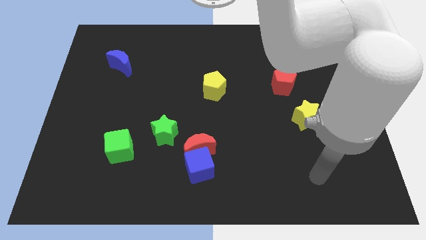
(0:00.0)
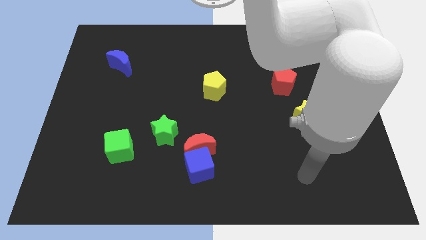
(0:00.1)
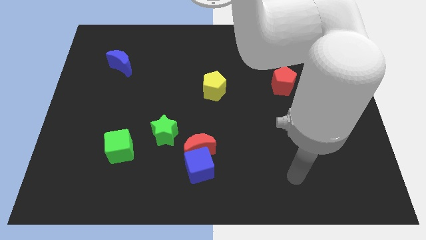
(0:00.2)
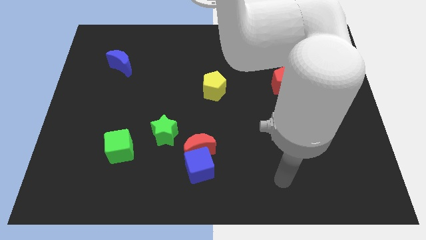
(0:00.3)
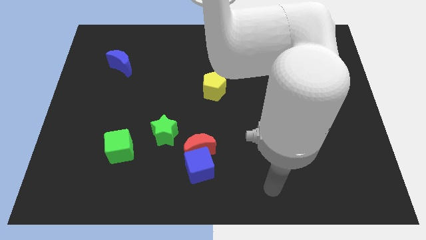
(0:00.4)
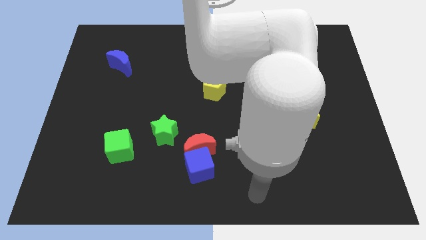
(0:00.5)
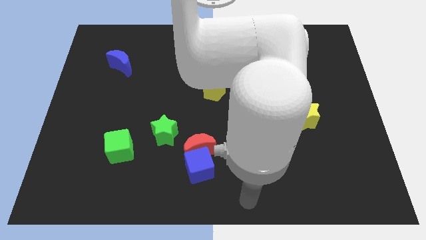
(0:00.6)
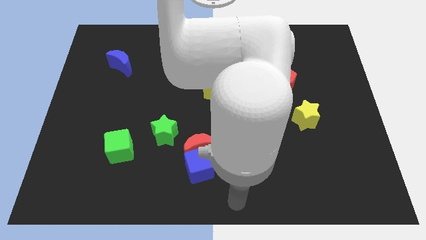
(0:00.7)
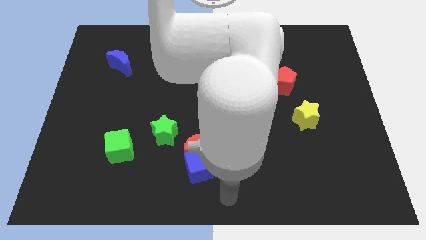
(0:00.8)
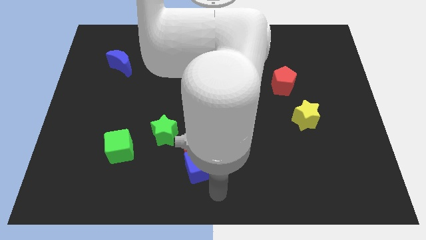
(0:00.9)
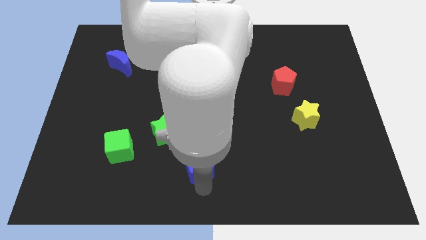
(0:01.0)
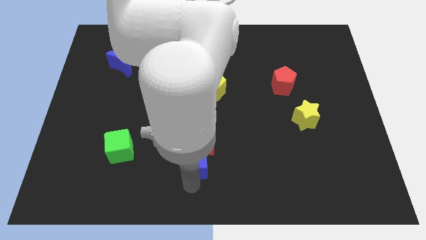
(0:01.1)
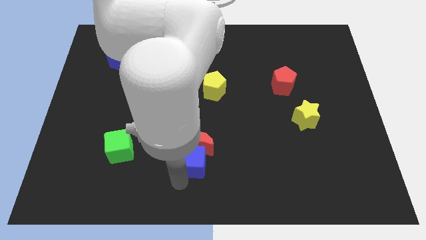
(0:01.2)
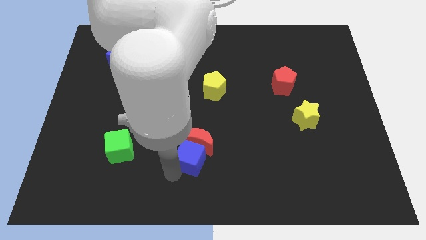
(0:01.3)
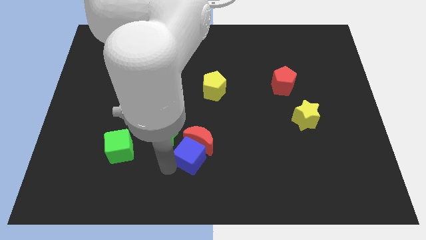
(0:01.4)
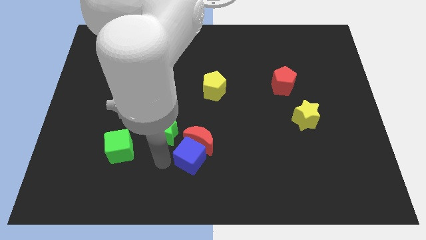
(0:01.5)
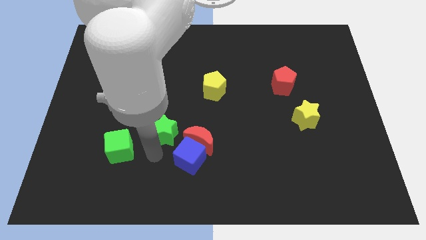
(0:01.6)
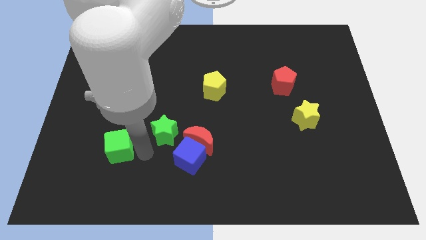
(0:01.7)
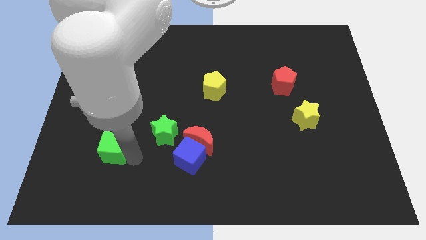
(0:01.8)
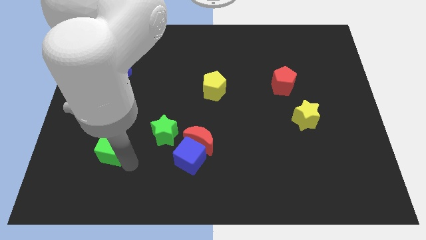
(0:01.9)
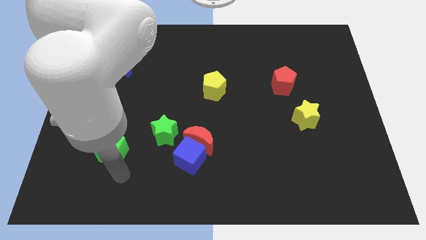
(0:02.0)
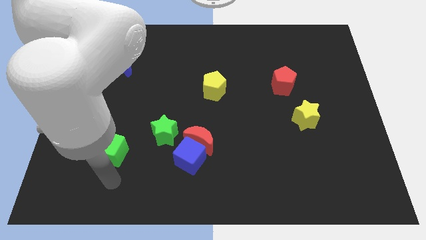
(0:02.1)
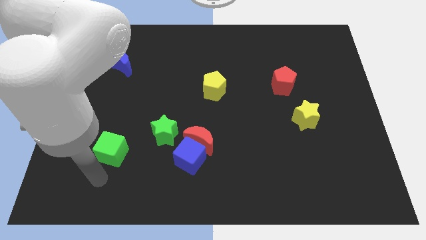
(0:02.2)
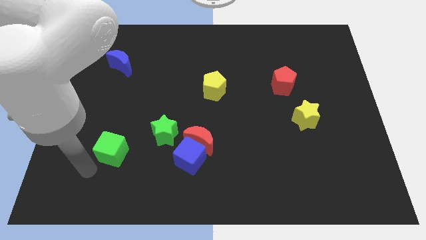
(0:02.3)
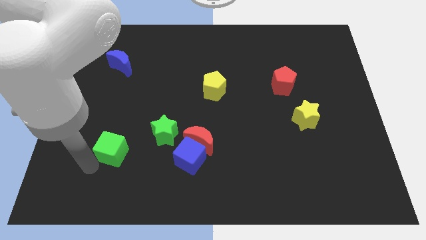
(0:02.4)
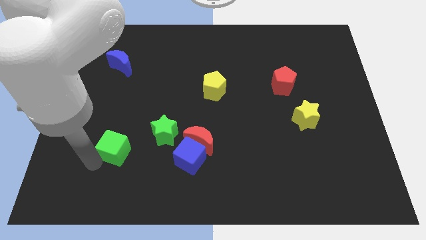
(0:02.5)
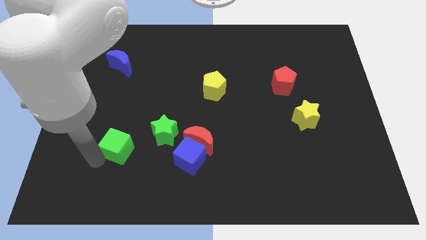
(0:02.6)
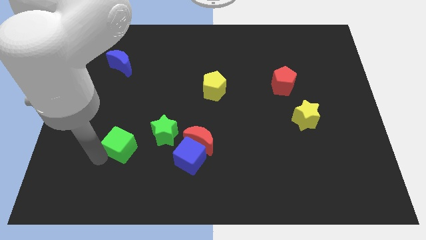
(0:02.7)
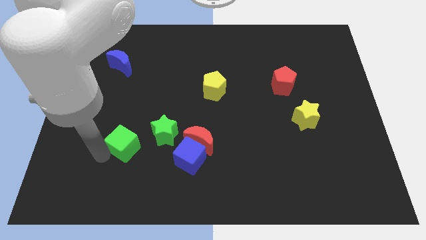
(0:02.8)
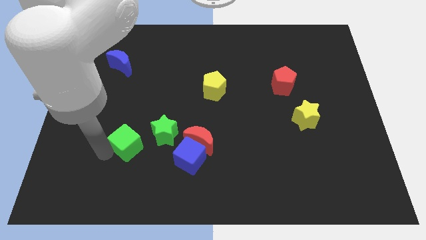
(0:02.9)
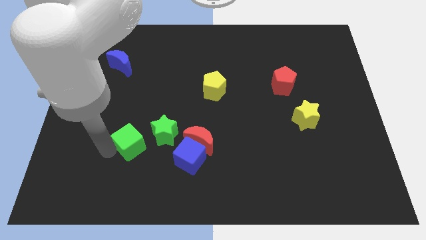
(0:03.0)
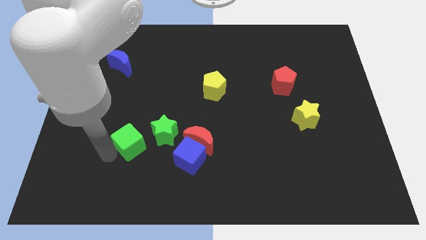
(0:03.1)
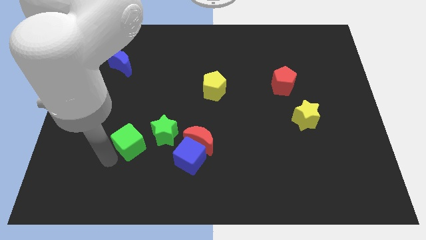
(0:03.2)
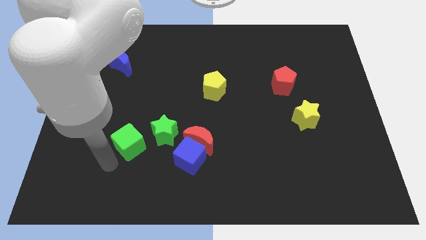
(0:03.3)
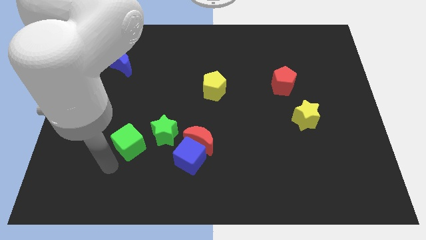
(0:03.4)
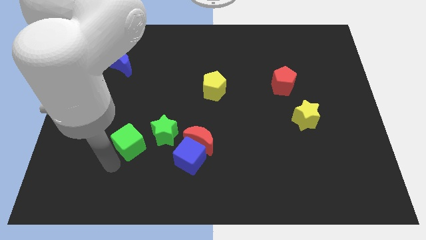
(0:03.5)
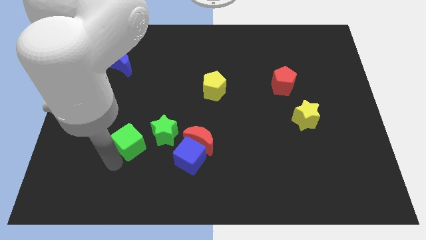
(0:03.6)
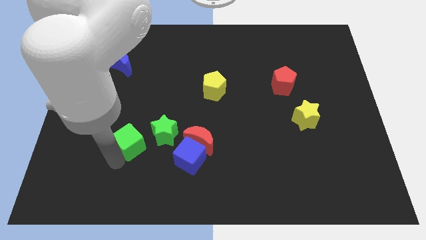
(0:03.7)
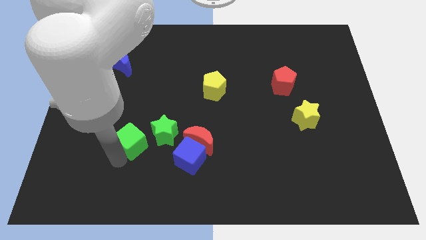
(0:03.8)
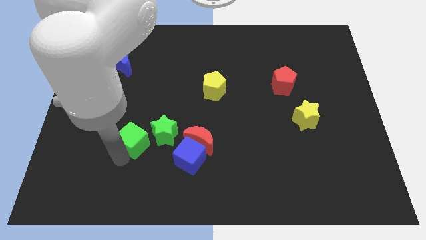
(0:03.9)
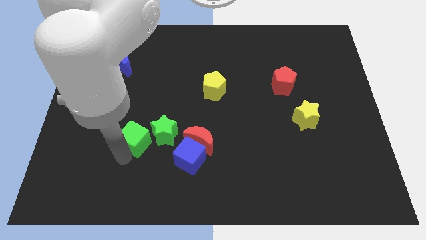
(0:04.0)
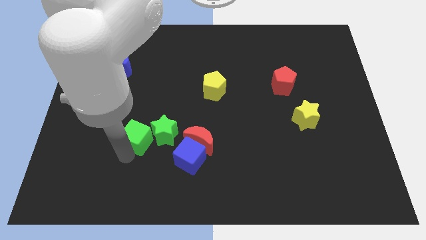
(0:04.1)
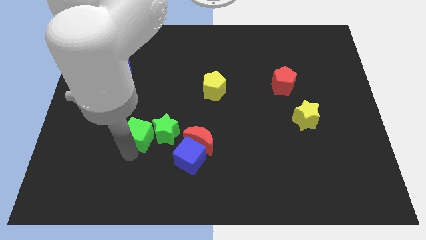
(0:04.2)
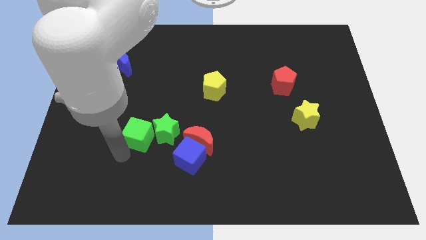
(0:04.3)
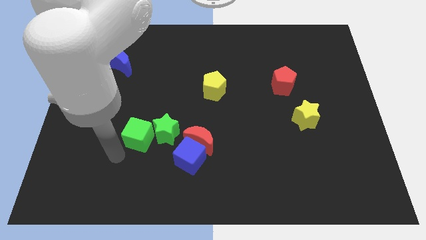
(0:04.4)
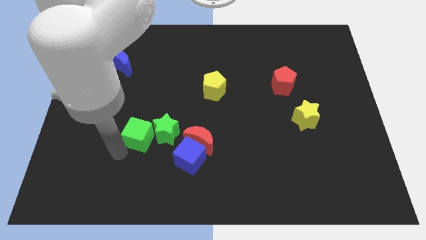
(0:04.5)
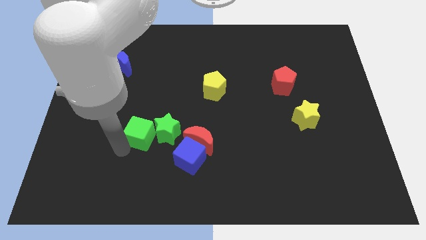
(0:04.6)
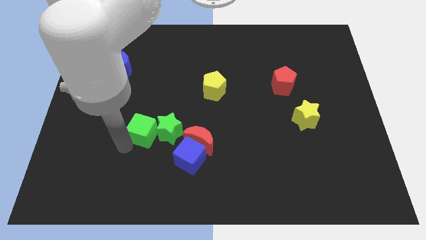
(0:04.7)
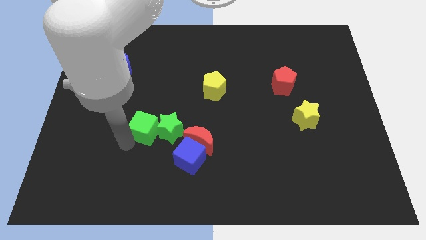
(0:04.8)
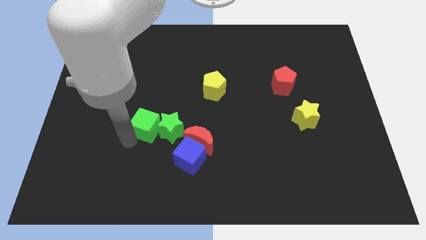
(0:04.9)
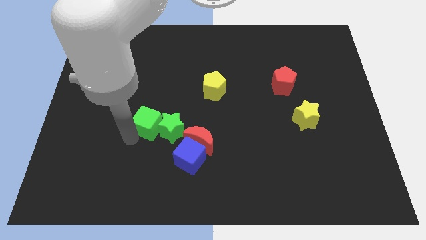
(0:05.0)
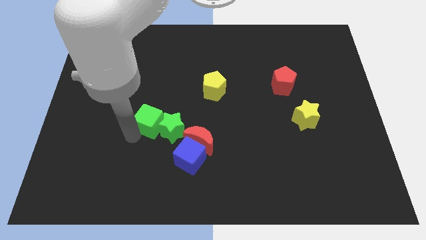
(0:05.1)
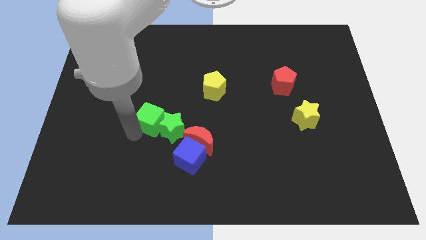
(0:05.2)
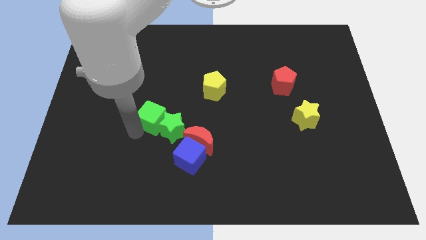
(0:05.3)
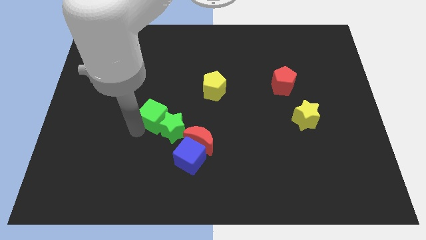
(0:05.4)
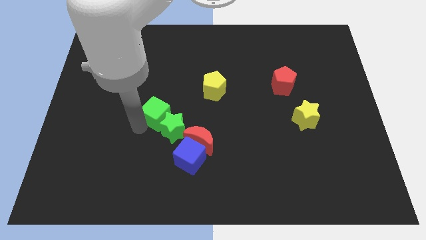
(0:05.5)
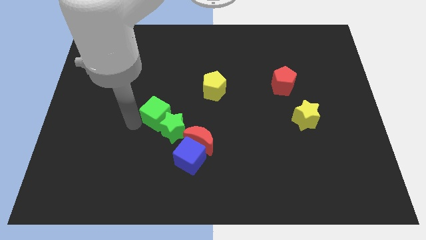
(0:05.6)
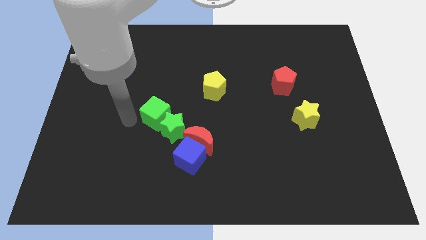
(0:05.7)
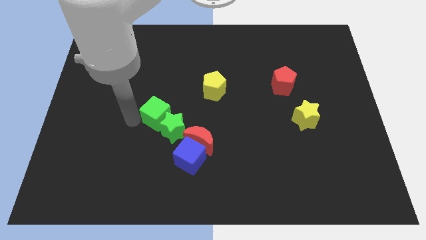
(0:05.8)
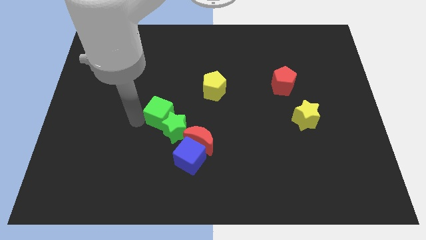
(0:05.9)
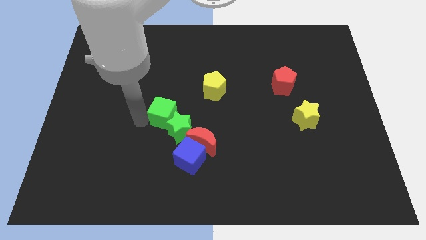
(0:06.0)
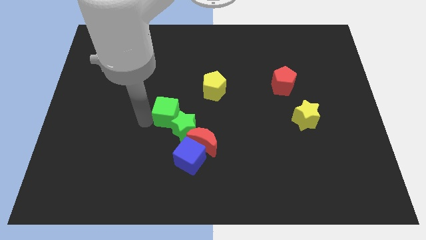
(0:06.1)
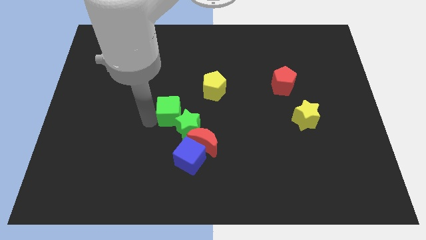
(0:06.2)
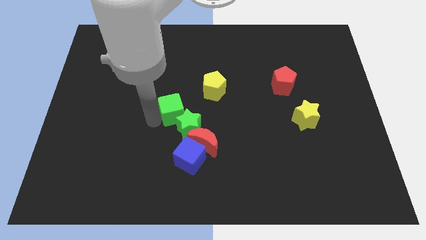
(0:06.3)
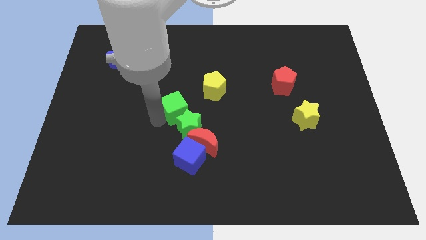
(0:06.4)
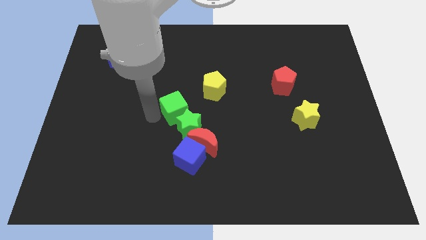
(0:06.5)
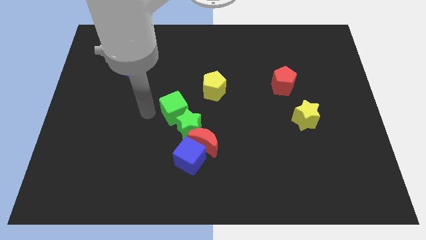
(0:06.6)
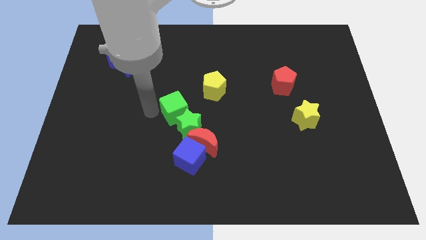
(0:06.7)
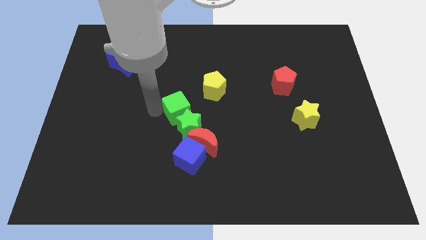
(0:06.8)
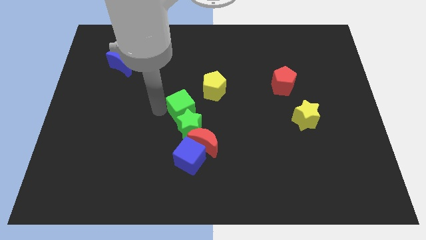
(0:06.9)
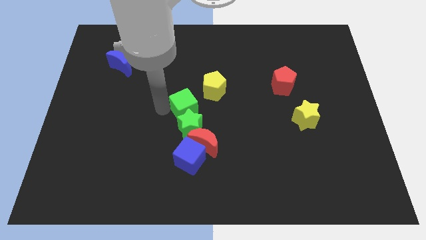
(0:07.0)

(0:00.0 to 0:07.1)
slide the green cube to the top right of the green star

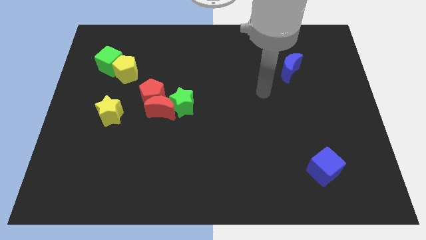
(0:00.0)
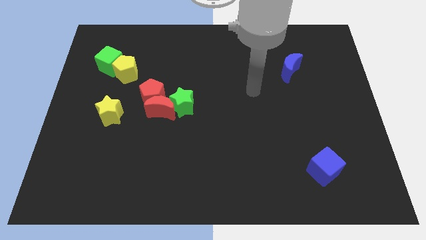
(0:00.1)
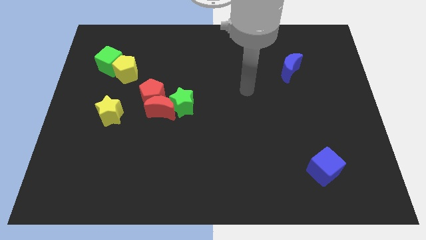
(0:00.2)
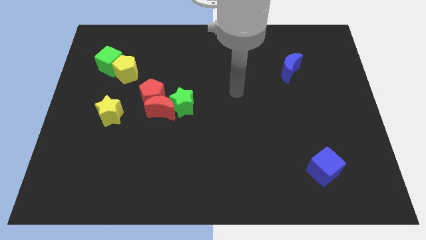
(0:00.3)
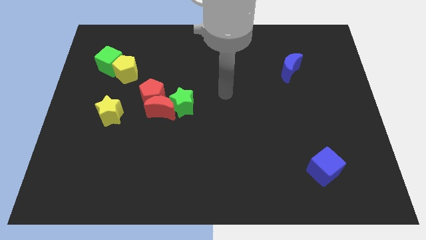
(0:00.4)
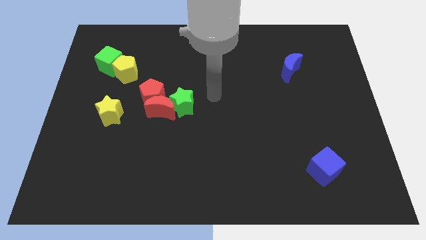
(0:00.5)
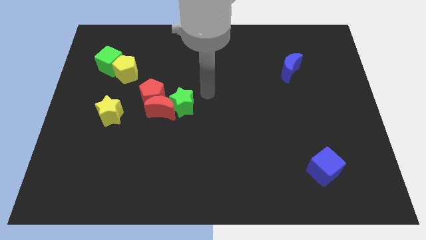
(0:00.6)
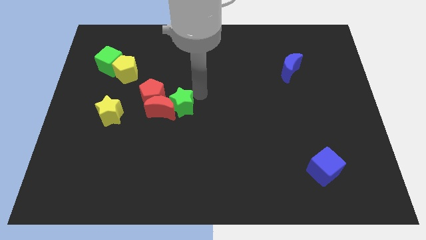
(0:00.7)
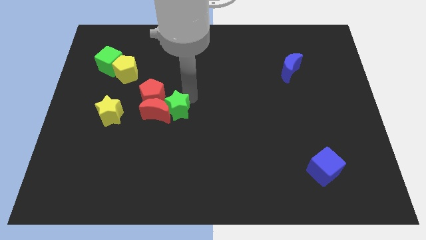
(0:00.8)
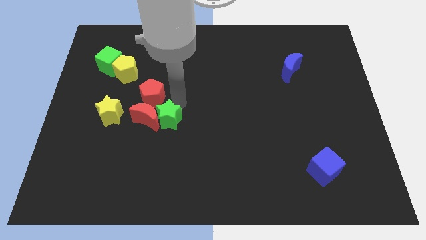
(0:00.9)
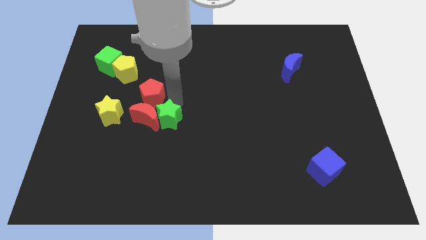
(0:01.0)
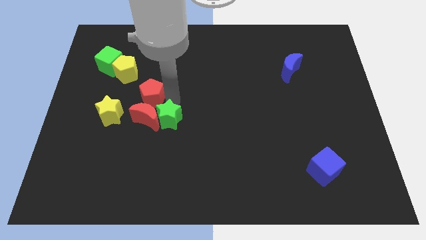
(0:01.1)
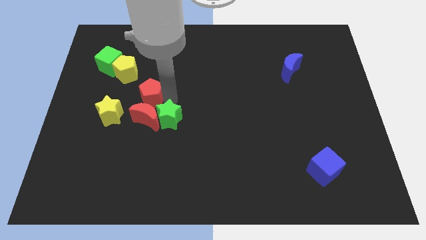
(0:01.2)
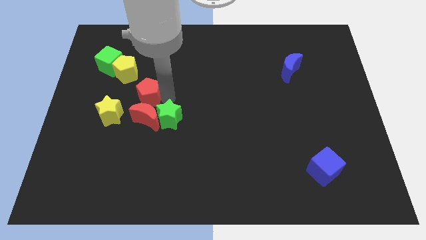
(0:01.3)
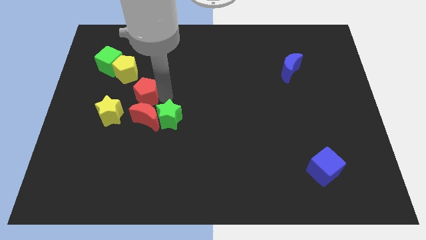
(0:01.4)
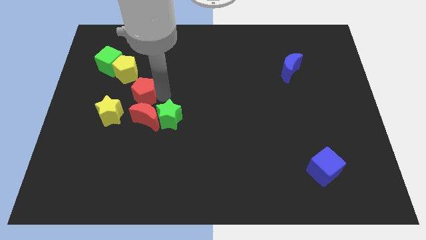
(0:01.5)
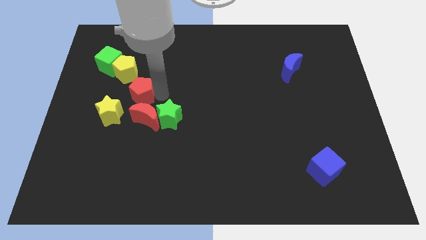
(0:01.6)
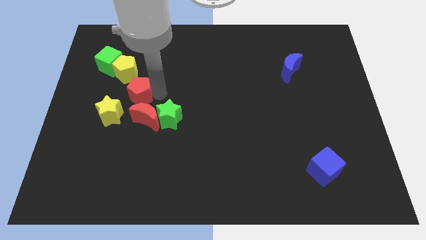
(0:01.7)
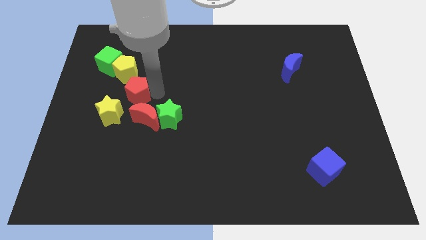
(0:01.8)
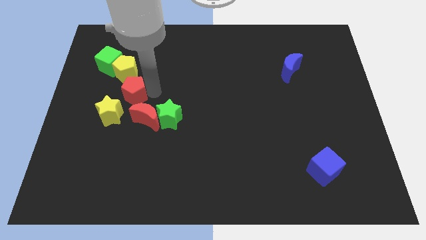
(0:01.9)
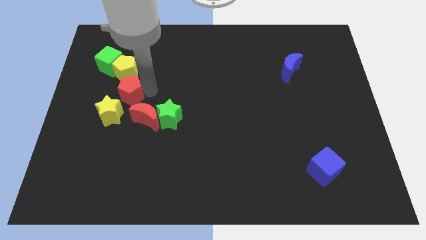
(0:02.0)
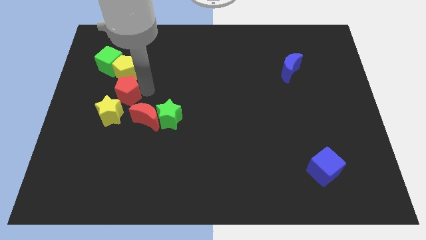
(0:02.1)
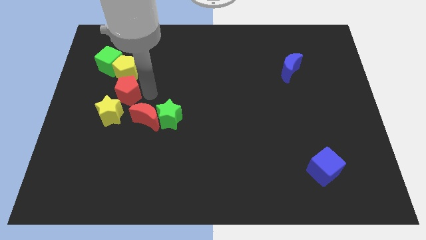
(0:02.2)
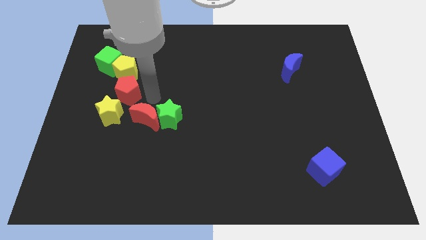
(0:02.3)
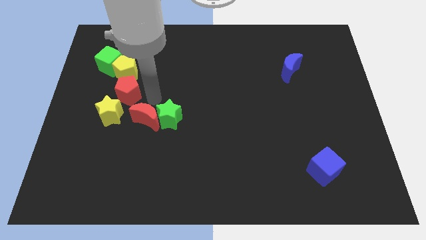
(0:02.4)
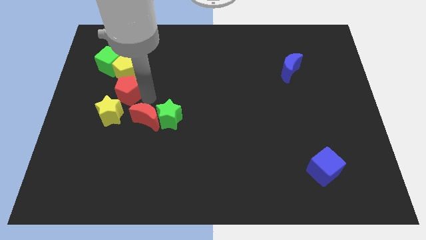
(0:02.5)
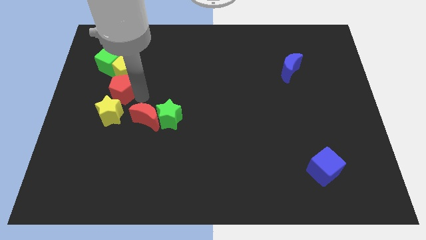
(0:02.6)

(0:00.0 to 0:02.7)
put the red pentagon to the bottom left of the yellow pentagon
